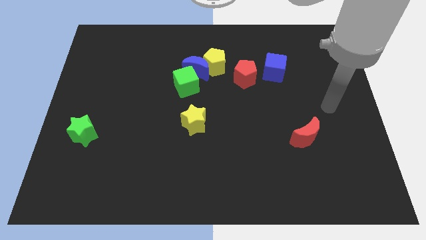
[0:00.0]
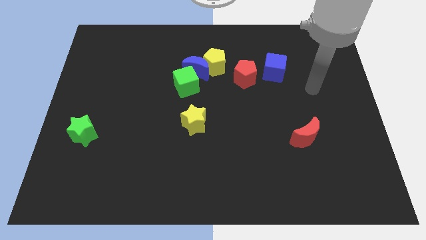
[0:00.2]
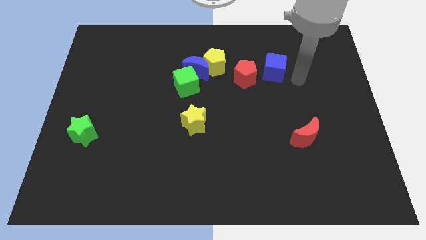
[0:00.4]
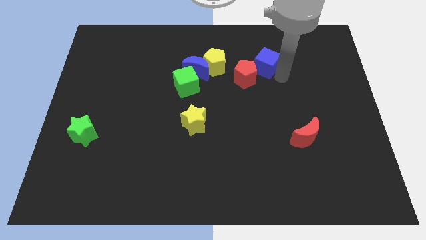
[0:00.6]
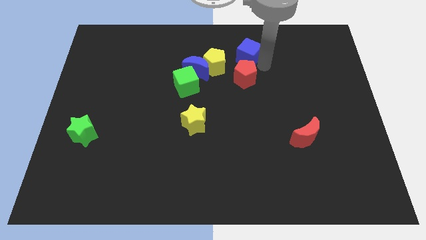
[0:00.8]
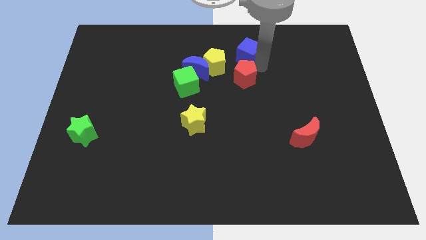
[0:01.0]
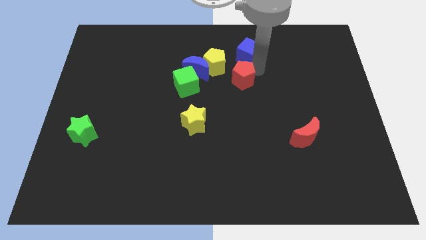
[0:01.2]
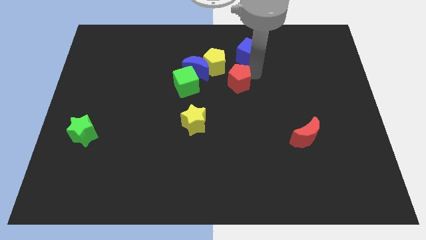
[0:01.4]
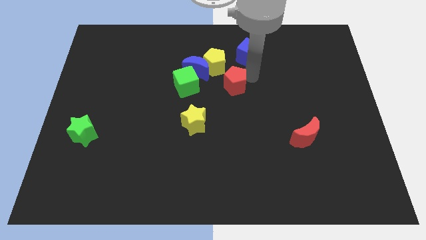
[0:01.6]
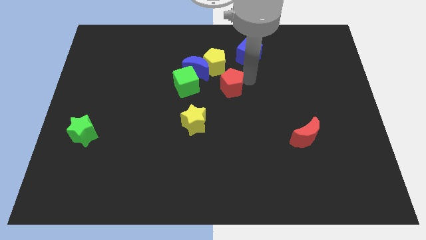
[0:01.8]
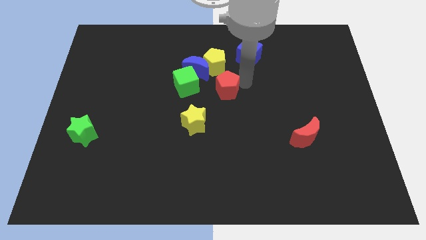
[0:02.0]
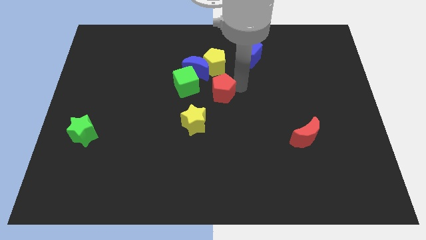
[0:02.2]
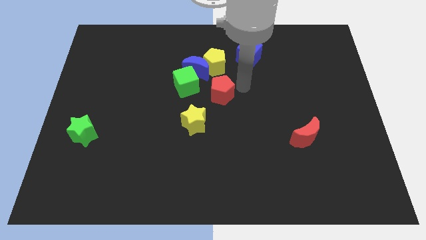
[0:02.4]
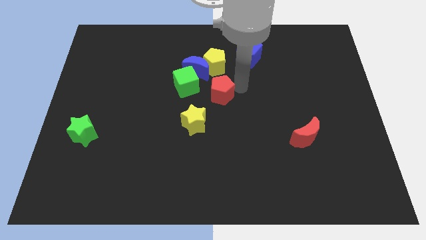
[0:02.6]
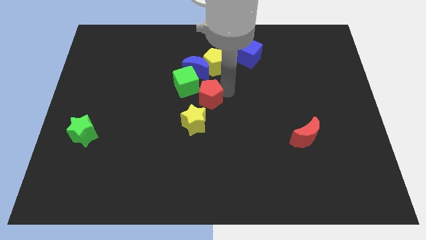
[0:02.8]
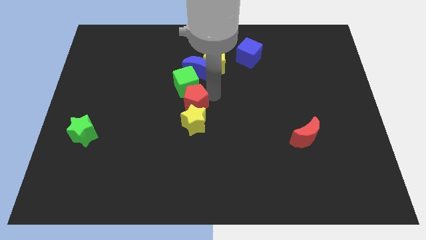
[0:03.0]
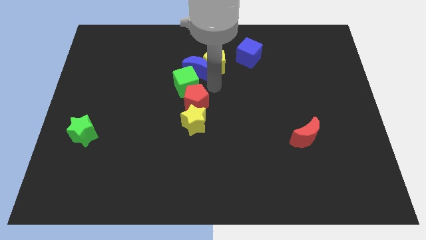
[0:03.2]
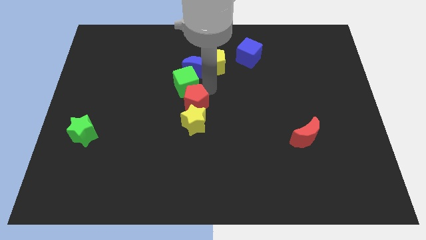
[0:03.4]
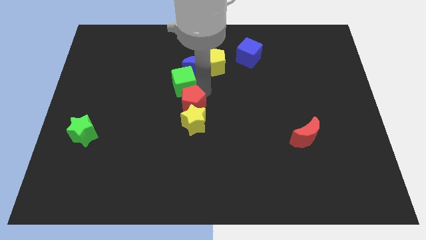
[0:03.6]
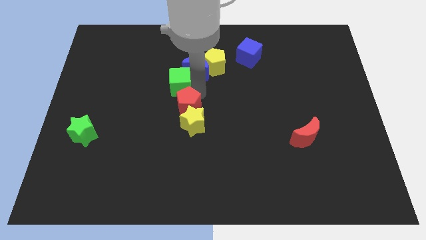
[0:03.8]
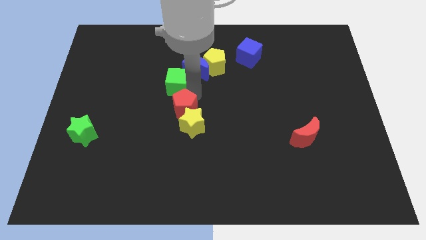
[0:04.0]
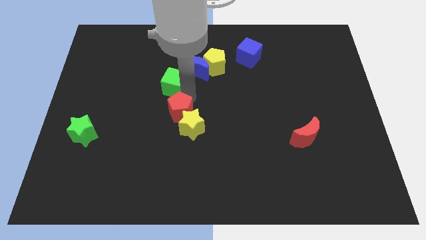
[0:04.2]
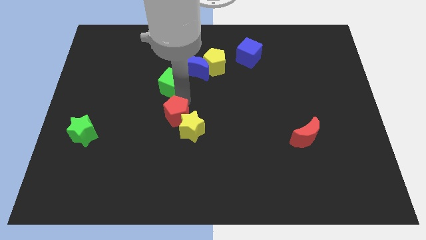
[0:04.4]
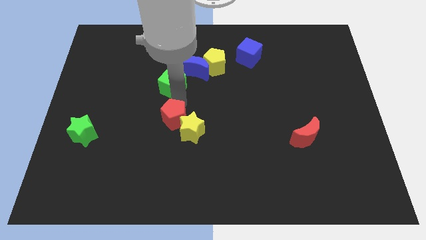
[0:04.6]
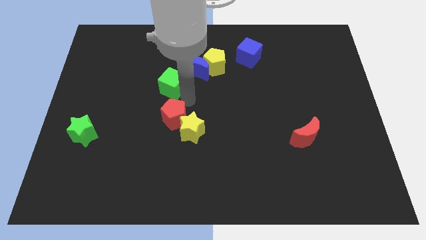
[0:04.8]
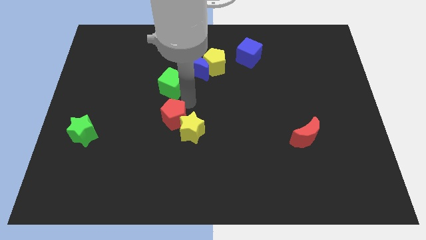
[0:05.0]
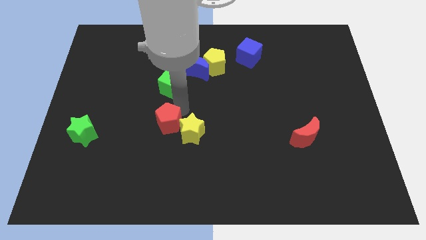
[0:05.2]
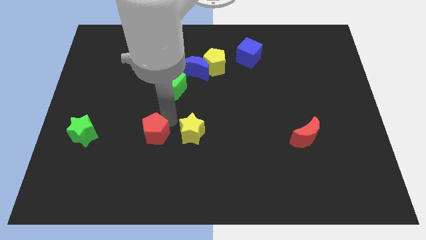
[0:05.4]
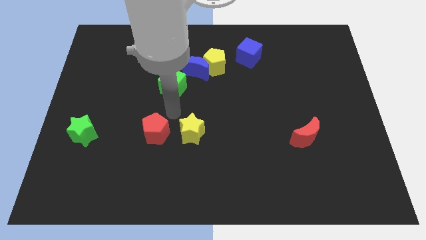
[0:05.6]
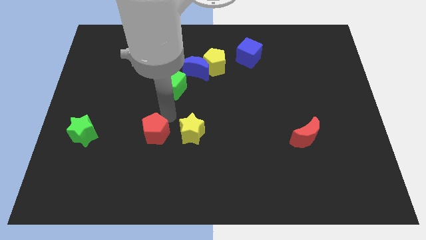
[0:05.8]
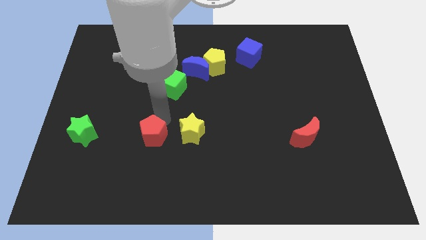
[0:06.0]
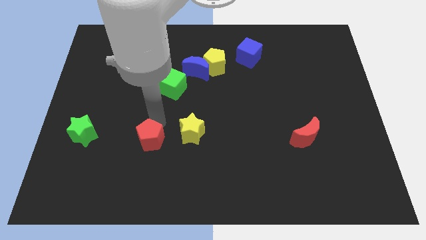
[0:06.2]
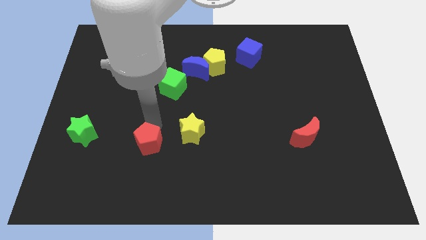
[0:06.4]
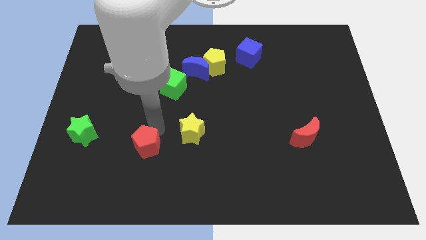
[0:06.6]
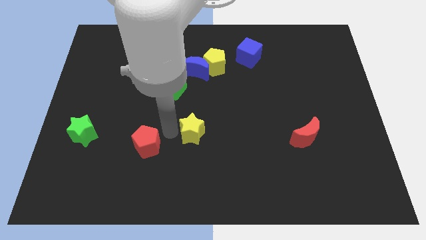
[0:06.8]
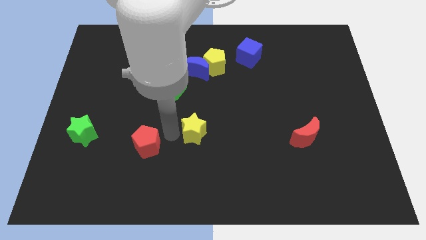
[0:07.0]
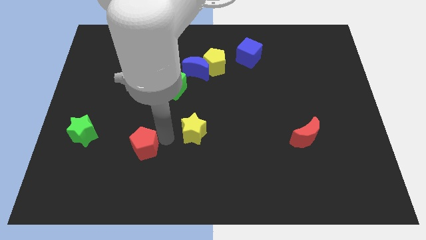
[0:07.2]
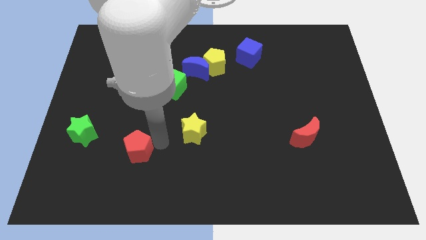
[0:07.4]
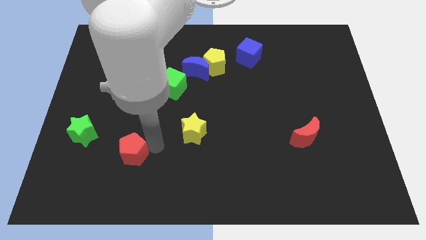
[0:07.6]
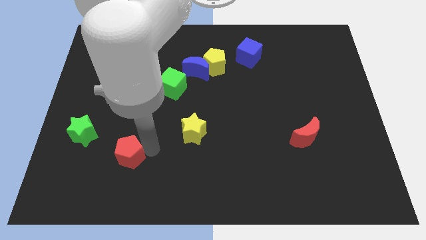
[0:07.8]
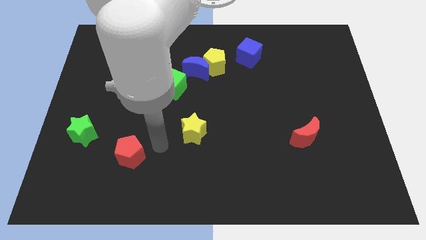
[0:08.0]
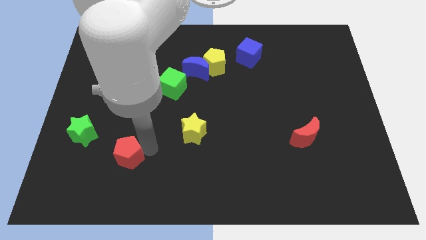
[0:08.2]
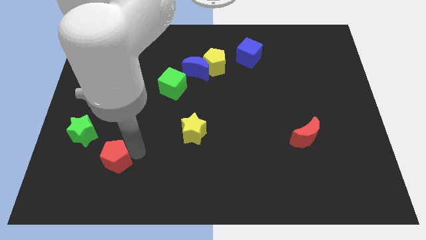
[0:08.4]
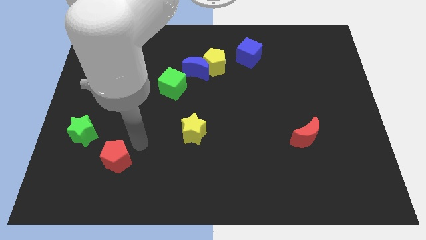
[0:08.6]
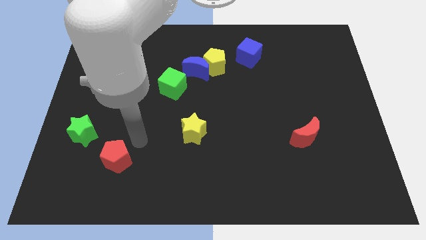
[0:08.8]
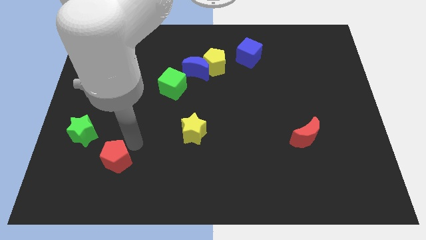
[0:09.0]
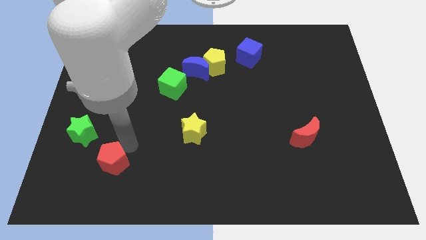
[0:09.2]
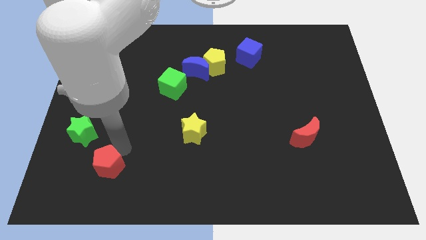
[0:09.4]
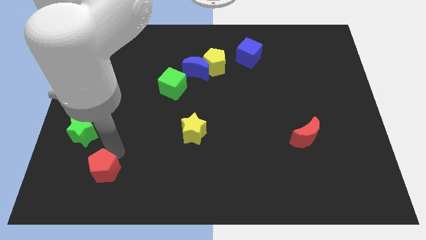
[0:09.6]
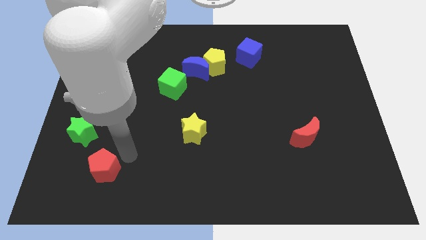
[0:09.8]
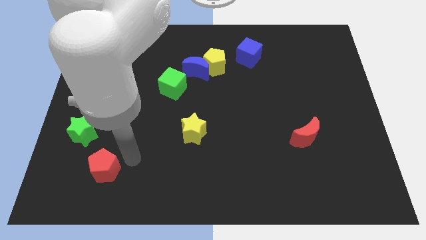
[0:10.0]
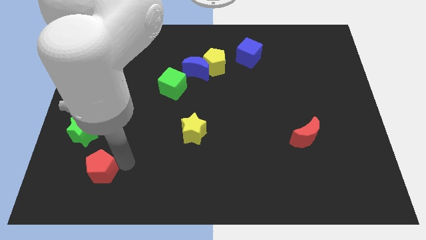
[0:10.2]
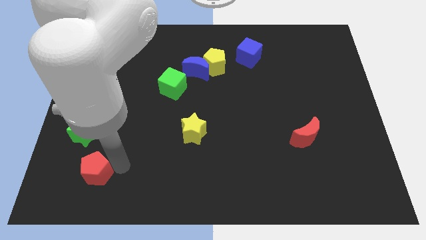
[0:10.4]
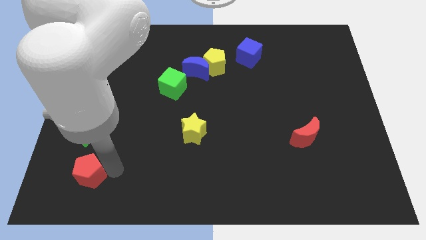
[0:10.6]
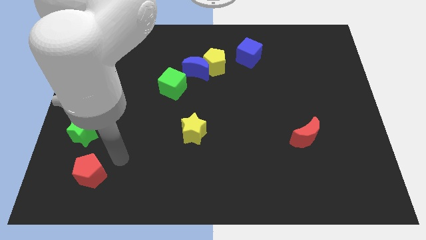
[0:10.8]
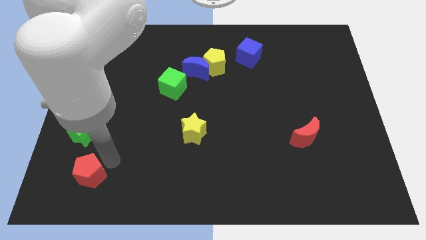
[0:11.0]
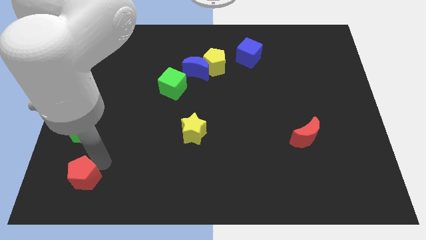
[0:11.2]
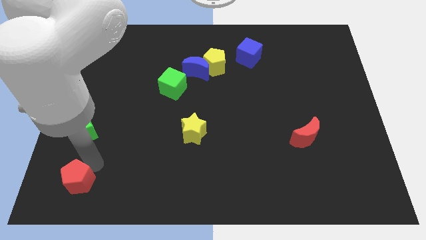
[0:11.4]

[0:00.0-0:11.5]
slide the red pentagon to the bottom left

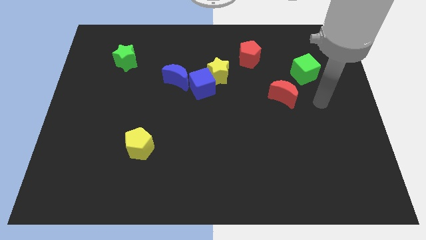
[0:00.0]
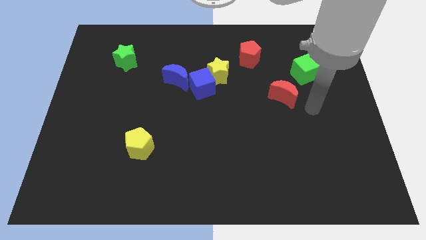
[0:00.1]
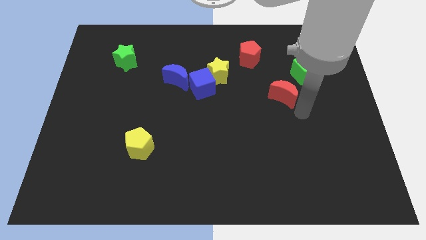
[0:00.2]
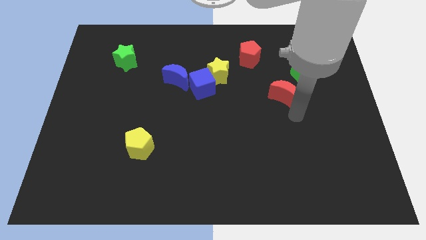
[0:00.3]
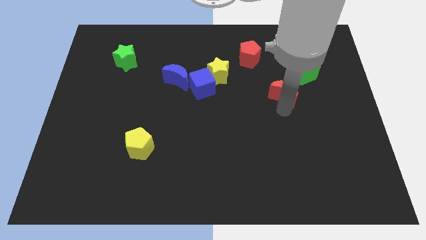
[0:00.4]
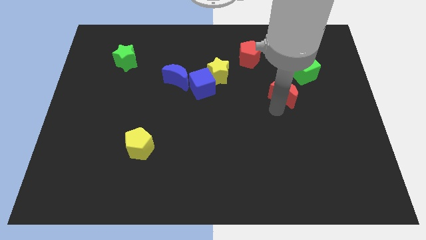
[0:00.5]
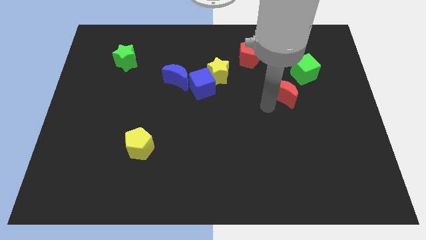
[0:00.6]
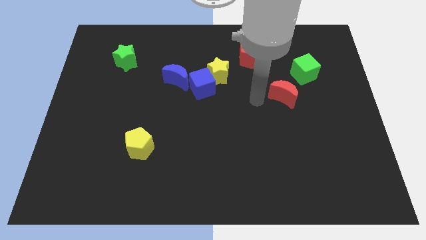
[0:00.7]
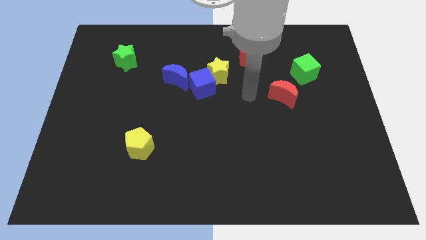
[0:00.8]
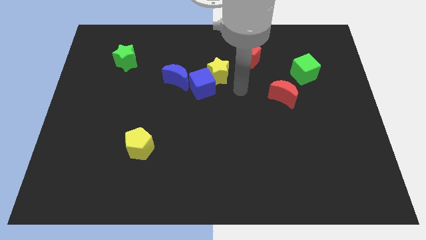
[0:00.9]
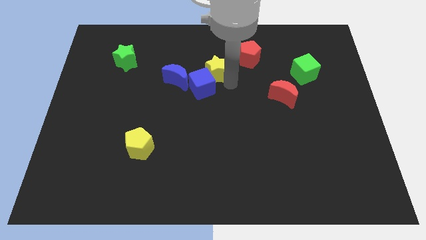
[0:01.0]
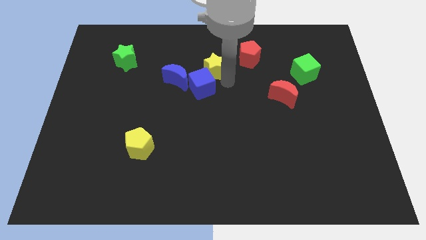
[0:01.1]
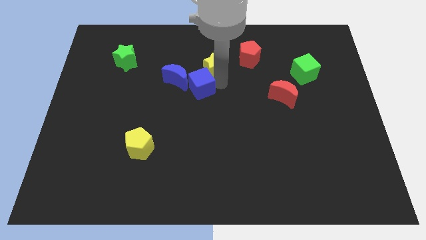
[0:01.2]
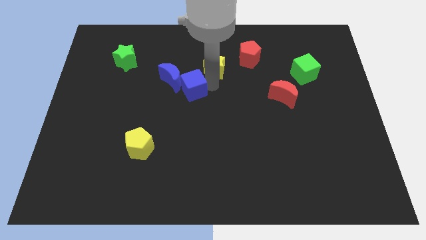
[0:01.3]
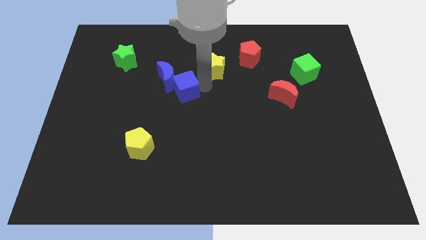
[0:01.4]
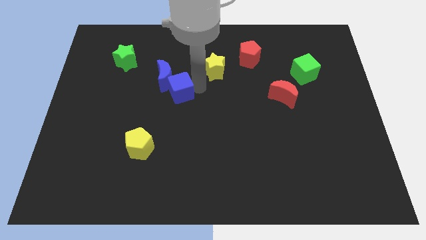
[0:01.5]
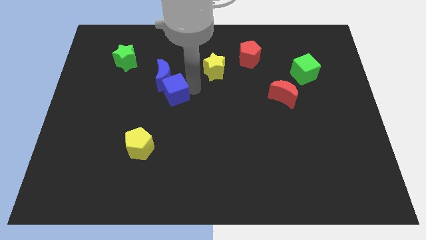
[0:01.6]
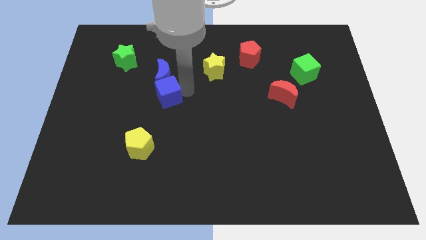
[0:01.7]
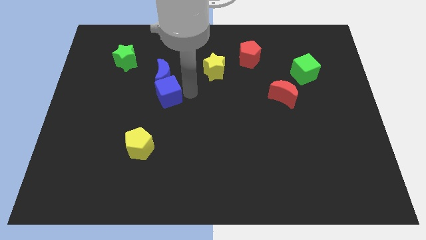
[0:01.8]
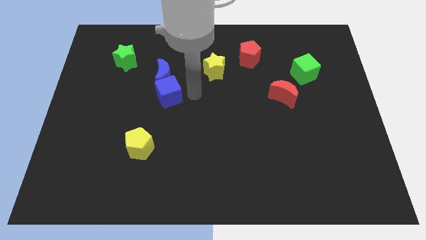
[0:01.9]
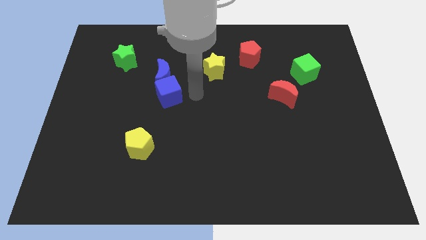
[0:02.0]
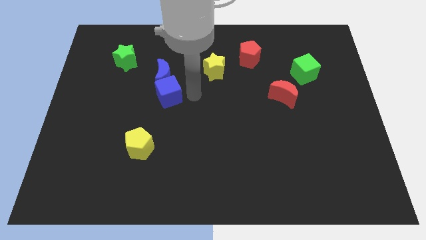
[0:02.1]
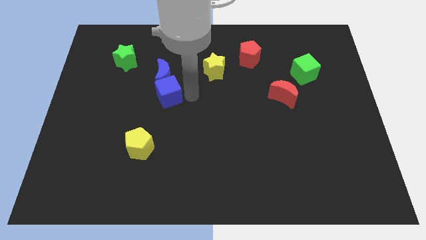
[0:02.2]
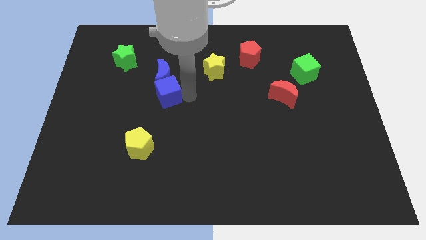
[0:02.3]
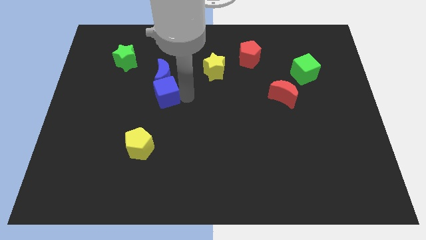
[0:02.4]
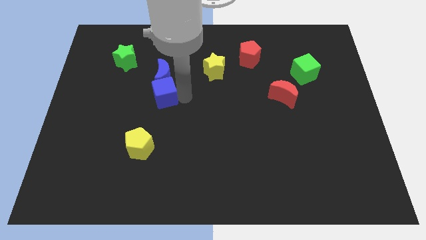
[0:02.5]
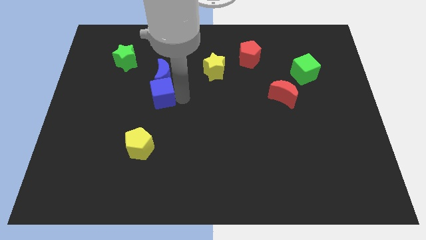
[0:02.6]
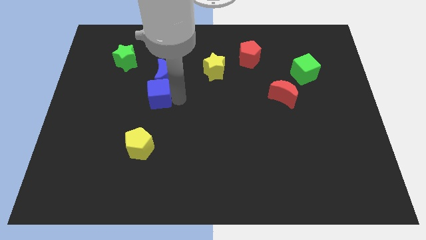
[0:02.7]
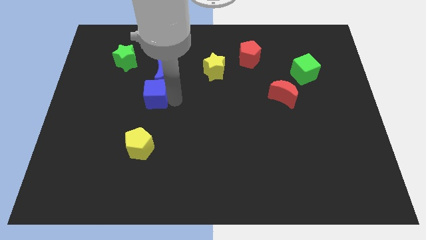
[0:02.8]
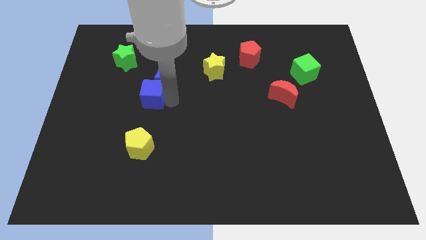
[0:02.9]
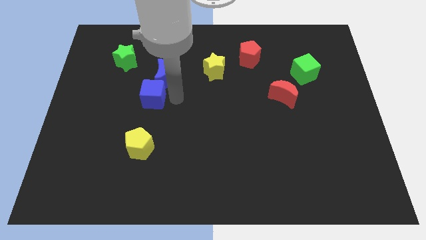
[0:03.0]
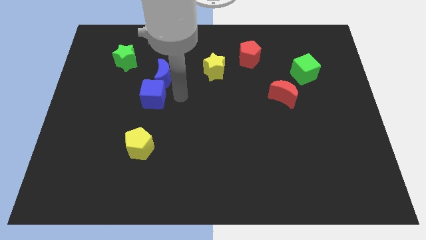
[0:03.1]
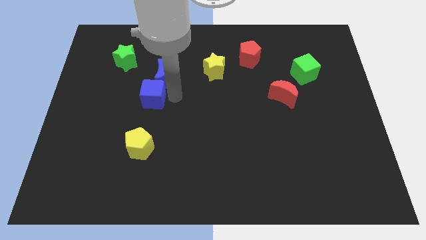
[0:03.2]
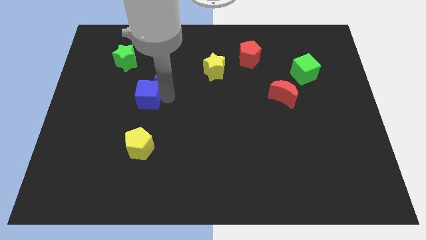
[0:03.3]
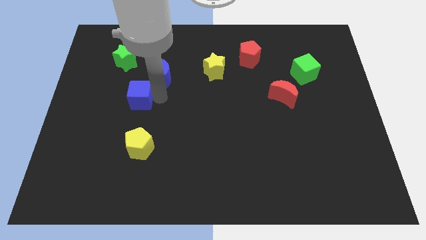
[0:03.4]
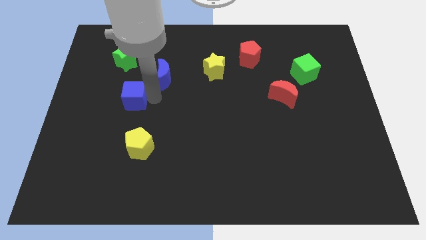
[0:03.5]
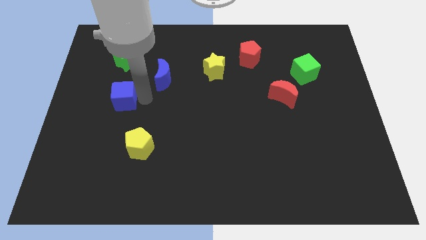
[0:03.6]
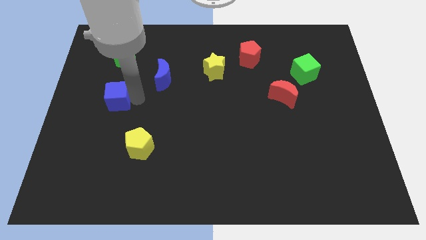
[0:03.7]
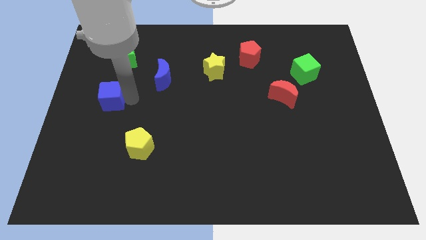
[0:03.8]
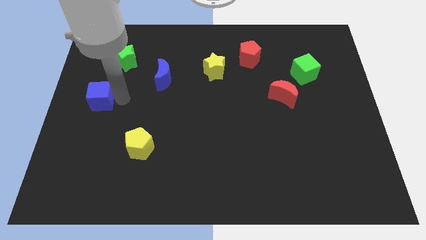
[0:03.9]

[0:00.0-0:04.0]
push the blue cube to the center left
